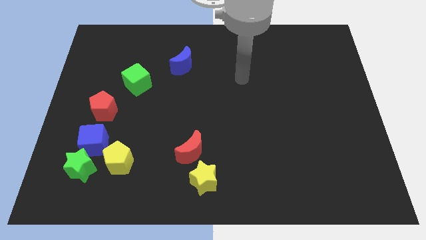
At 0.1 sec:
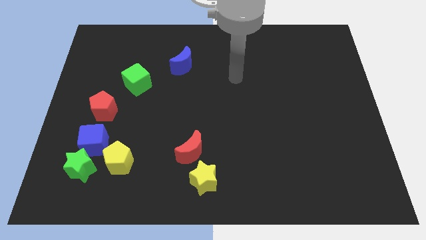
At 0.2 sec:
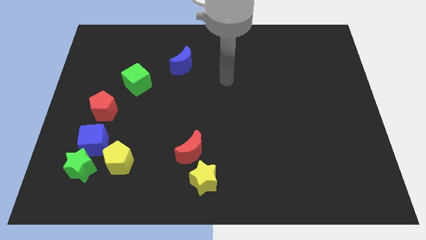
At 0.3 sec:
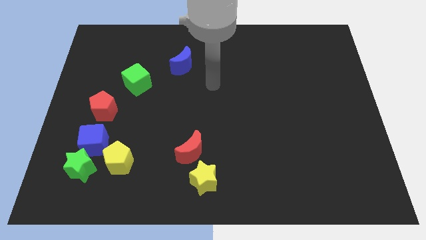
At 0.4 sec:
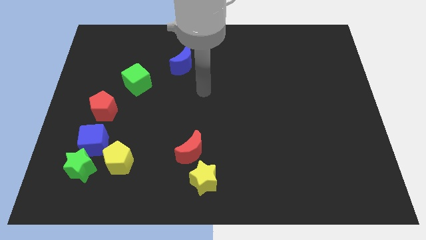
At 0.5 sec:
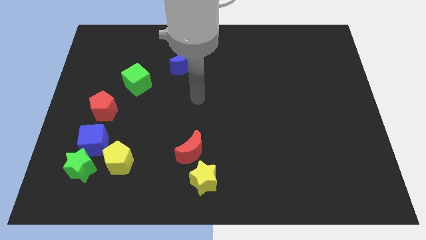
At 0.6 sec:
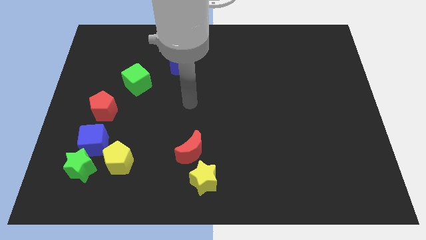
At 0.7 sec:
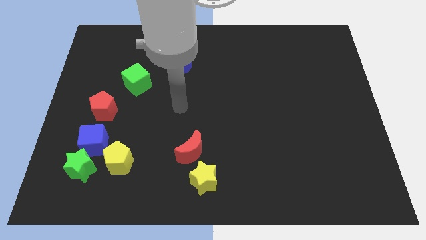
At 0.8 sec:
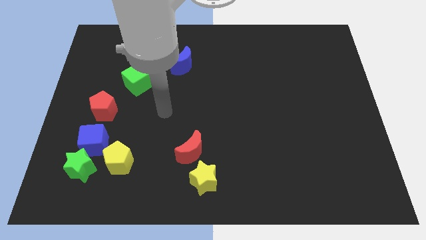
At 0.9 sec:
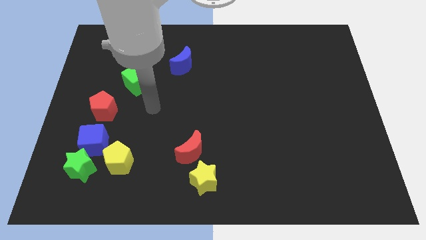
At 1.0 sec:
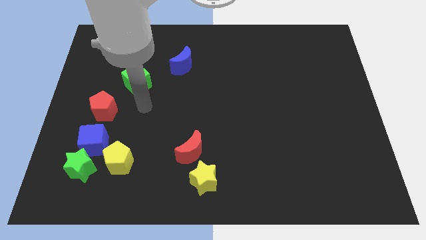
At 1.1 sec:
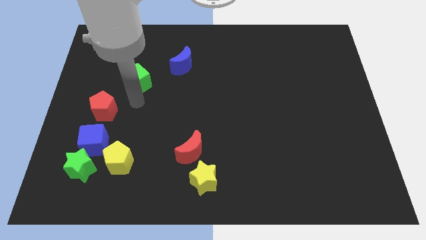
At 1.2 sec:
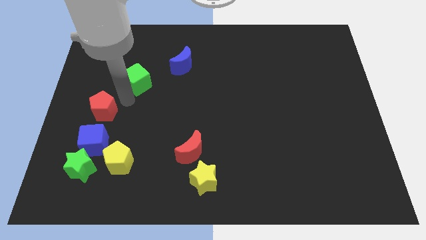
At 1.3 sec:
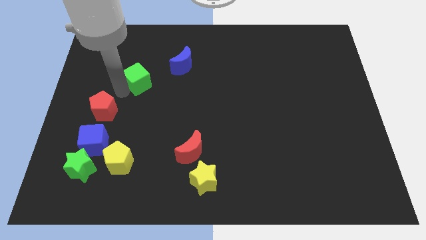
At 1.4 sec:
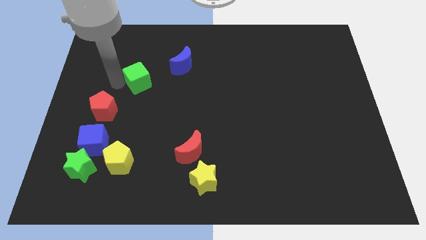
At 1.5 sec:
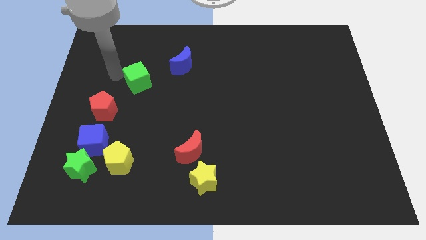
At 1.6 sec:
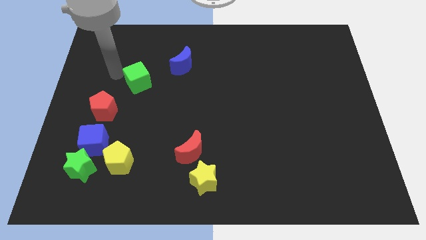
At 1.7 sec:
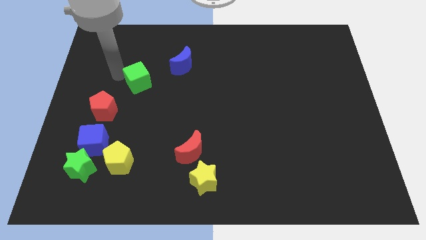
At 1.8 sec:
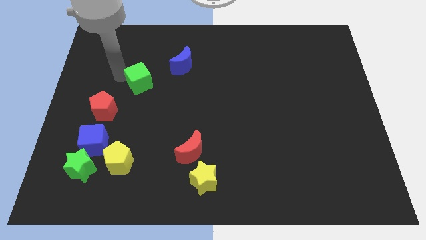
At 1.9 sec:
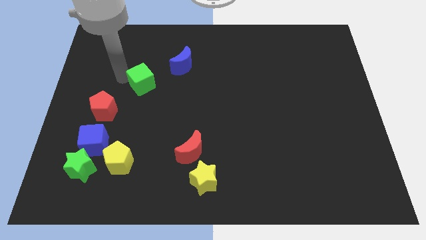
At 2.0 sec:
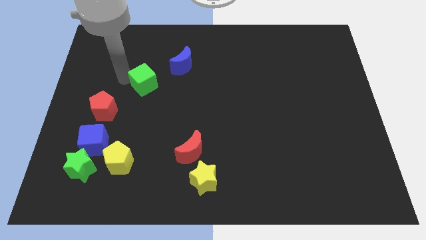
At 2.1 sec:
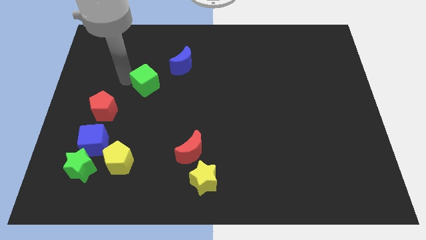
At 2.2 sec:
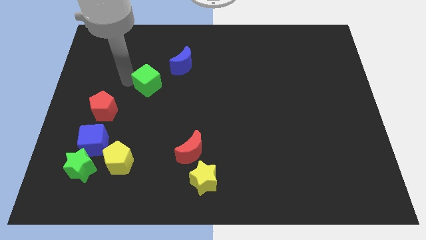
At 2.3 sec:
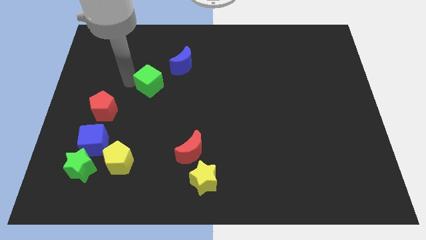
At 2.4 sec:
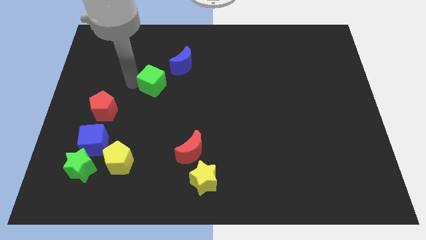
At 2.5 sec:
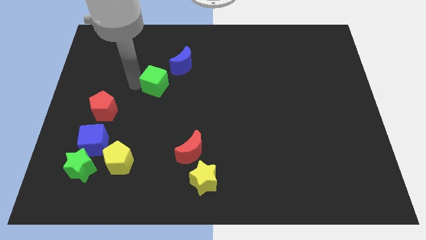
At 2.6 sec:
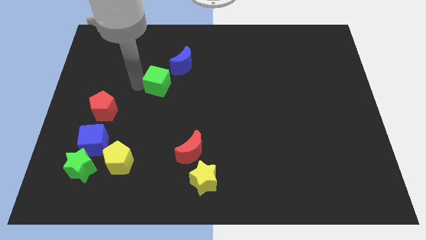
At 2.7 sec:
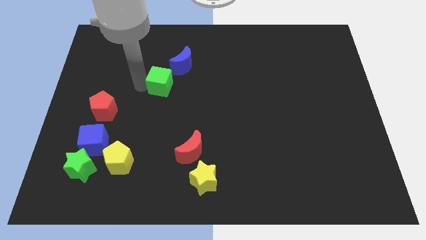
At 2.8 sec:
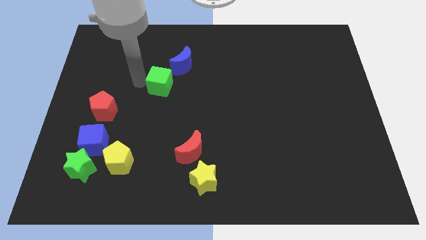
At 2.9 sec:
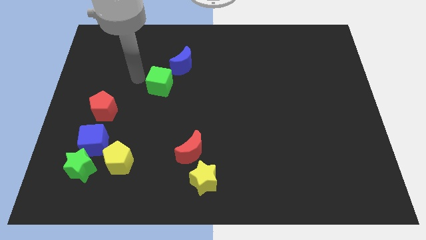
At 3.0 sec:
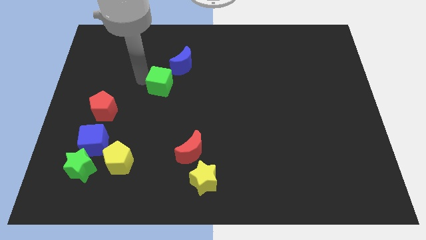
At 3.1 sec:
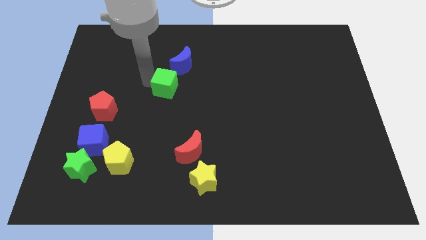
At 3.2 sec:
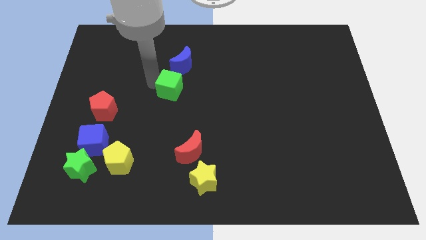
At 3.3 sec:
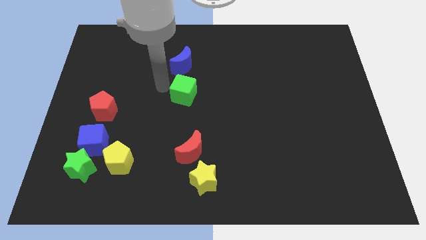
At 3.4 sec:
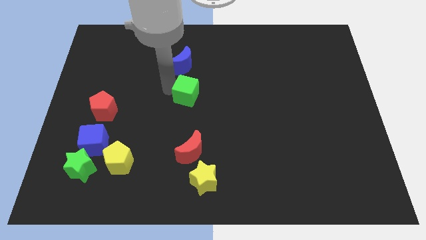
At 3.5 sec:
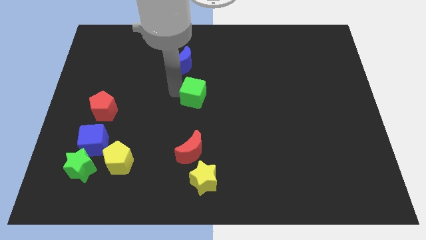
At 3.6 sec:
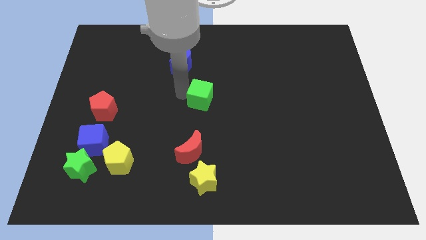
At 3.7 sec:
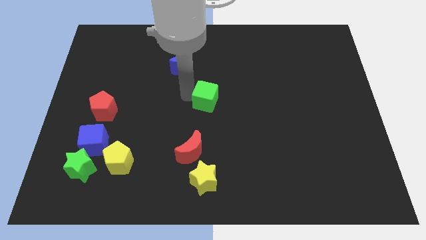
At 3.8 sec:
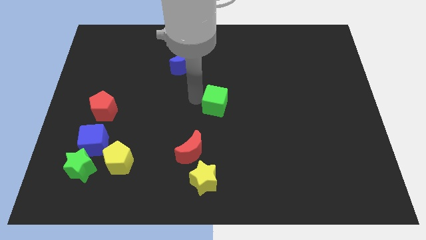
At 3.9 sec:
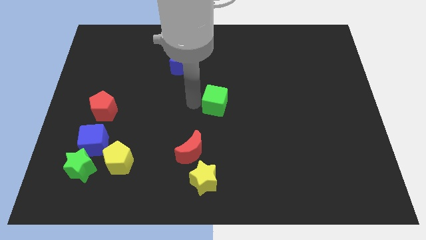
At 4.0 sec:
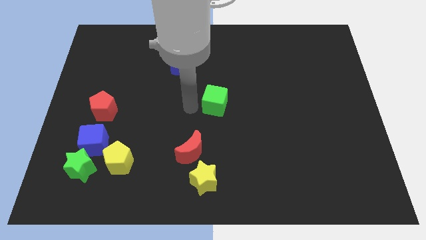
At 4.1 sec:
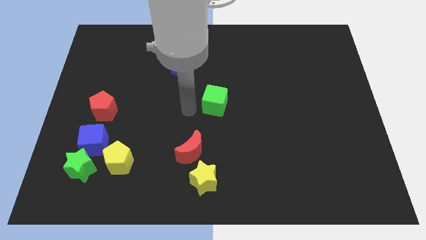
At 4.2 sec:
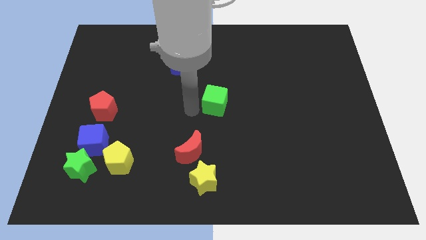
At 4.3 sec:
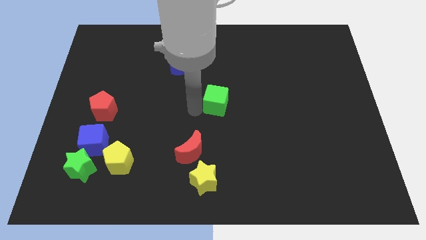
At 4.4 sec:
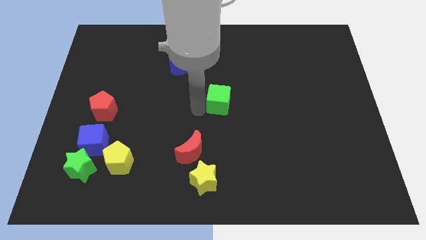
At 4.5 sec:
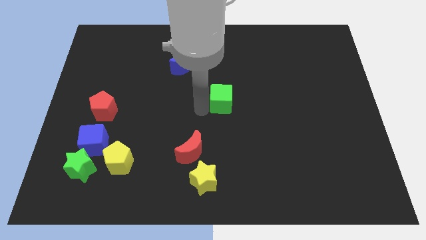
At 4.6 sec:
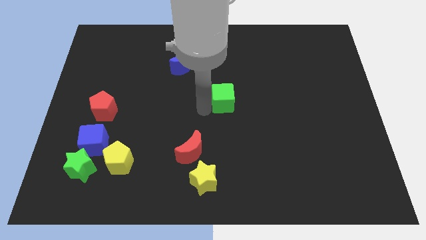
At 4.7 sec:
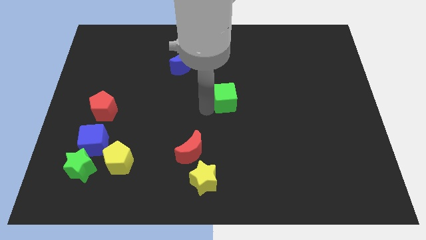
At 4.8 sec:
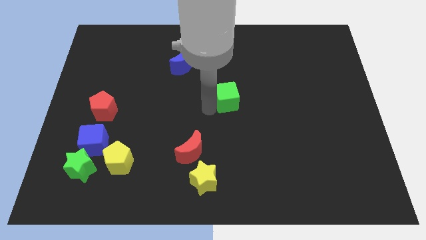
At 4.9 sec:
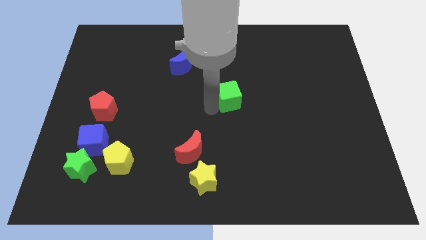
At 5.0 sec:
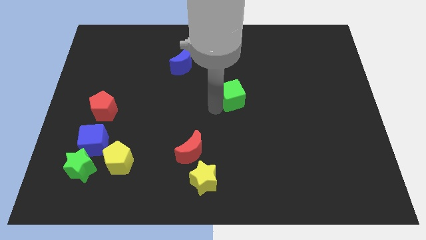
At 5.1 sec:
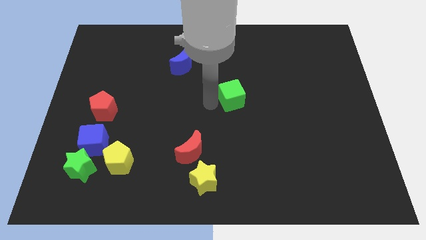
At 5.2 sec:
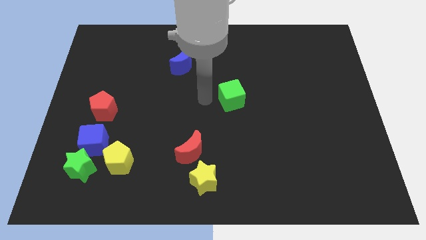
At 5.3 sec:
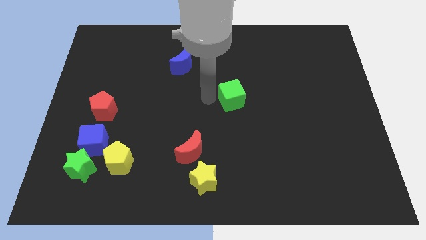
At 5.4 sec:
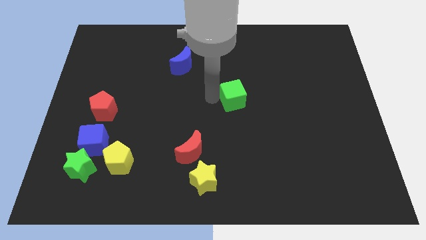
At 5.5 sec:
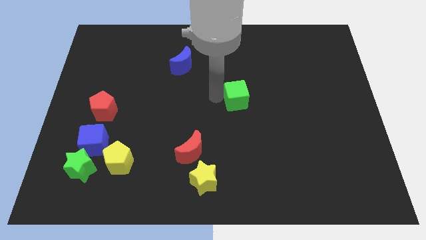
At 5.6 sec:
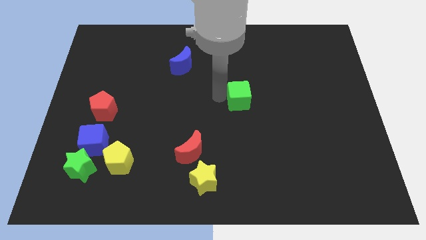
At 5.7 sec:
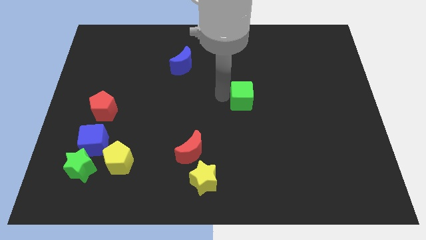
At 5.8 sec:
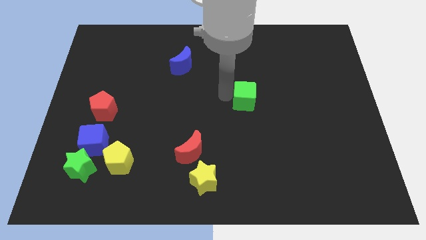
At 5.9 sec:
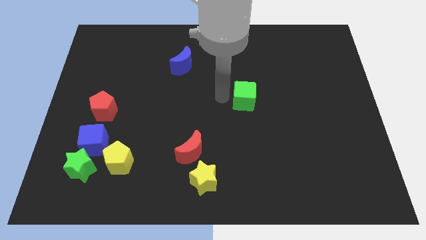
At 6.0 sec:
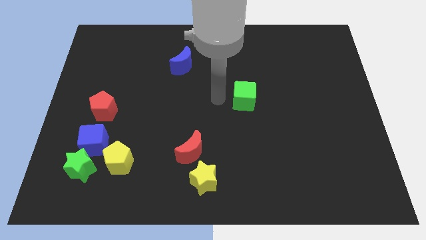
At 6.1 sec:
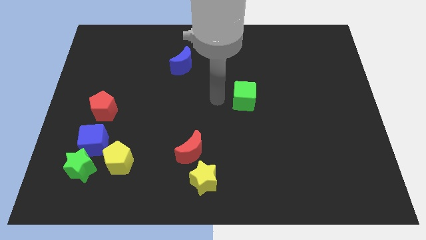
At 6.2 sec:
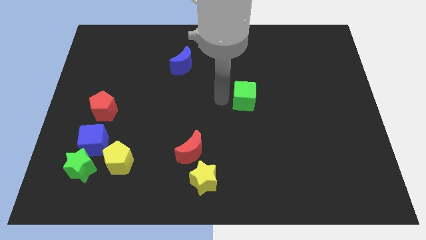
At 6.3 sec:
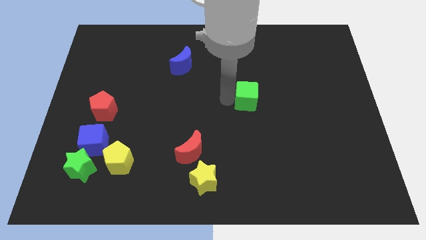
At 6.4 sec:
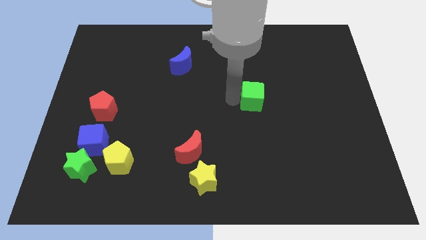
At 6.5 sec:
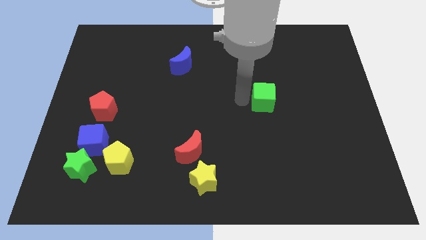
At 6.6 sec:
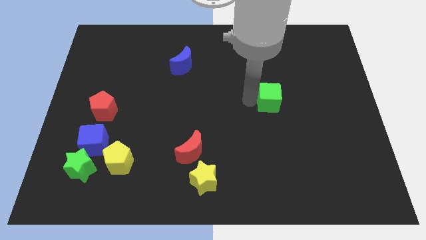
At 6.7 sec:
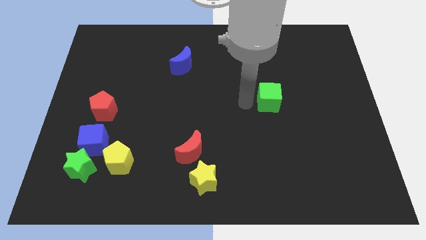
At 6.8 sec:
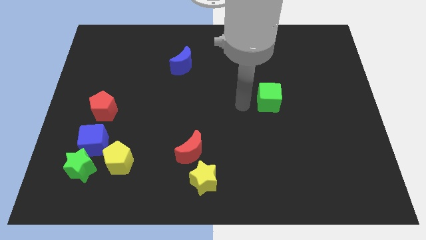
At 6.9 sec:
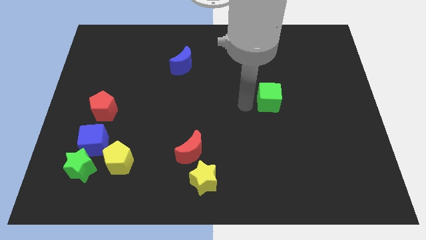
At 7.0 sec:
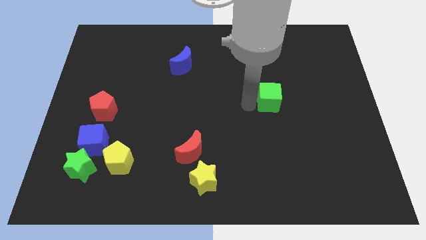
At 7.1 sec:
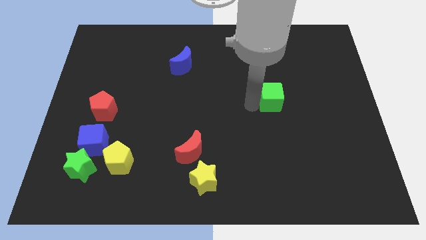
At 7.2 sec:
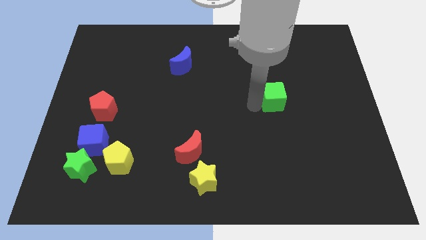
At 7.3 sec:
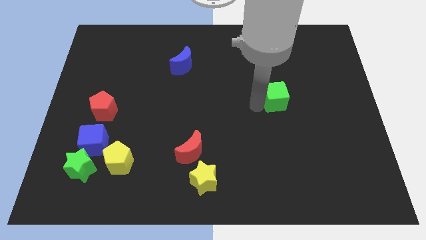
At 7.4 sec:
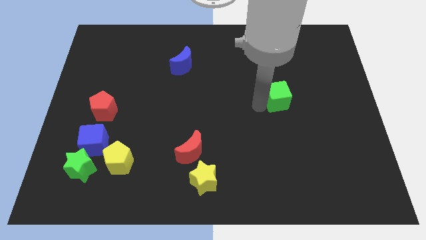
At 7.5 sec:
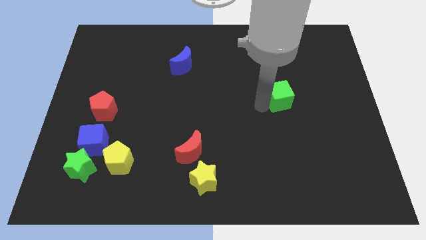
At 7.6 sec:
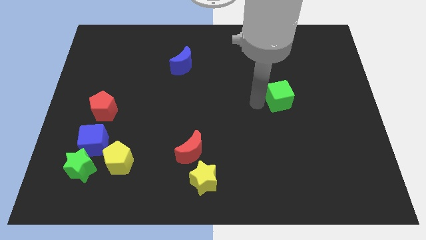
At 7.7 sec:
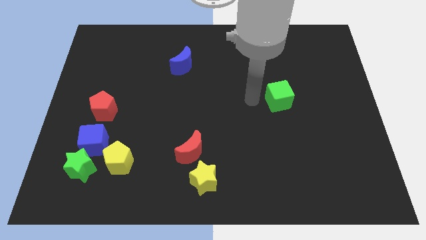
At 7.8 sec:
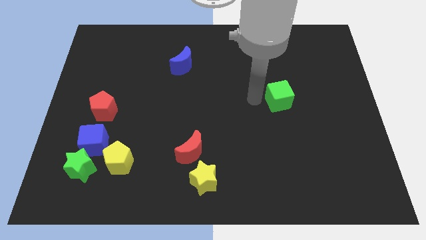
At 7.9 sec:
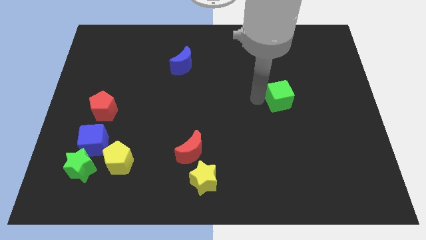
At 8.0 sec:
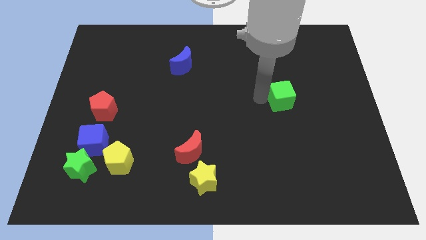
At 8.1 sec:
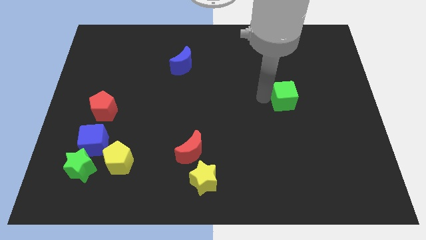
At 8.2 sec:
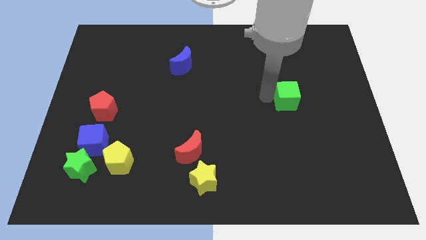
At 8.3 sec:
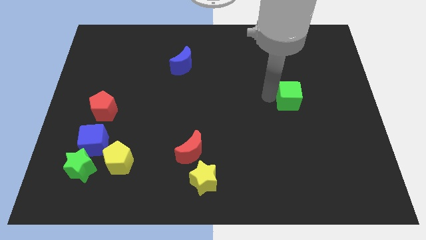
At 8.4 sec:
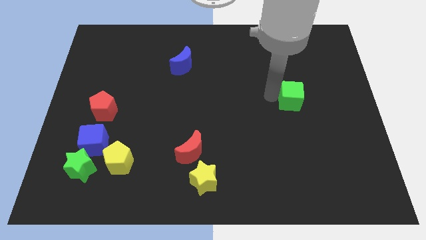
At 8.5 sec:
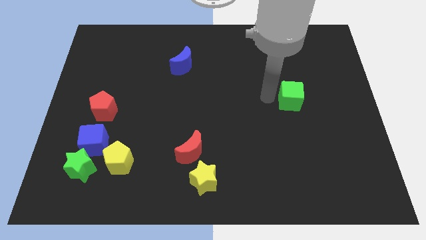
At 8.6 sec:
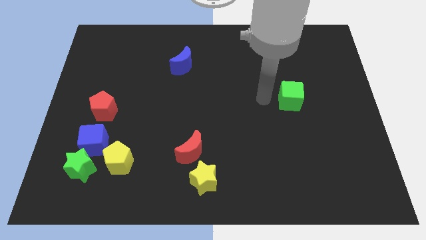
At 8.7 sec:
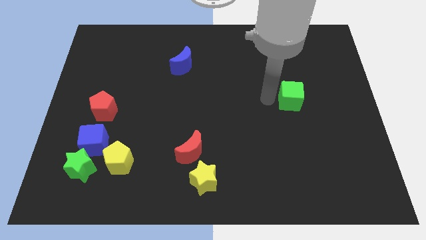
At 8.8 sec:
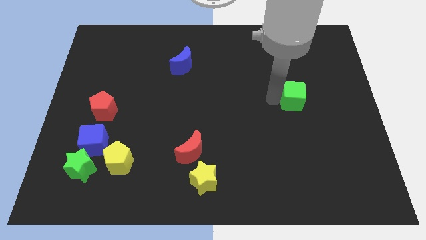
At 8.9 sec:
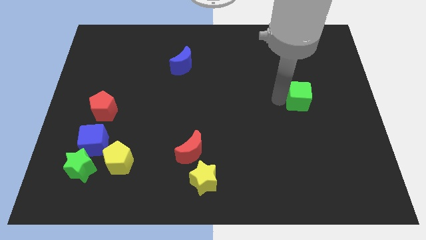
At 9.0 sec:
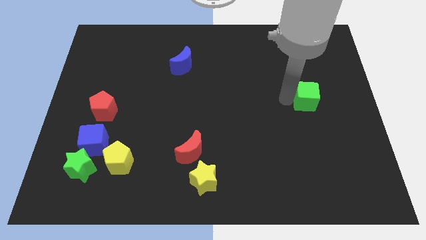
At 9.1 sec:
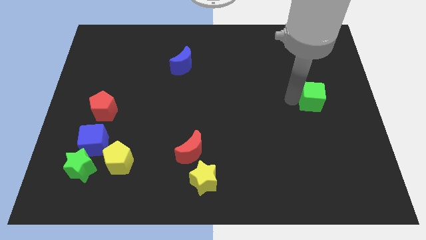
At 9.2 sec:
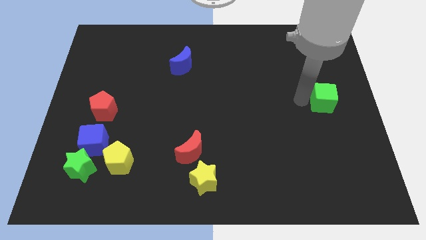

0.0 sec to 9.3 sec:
push the green cube to the right side of the board
